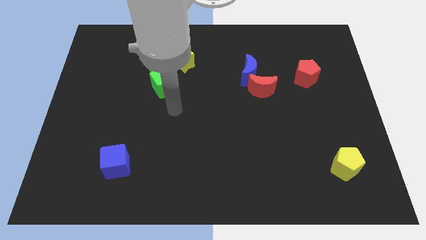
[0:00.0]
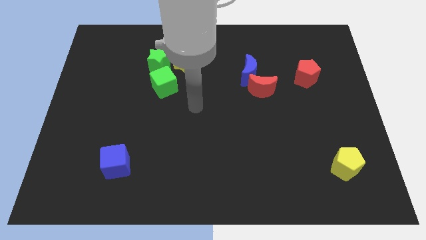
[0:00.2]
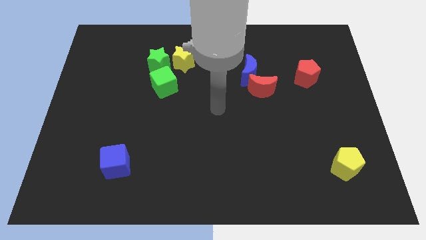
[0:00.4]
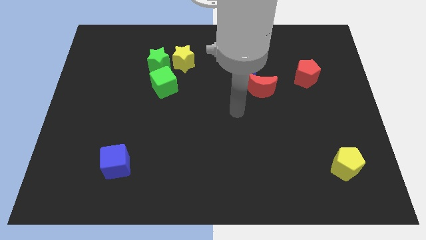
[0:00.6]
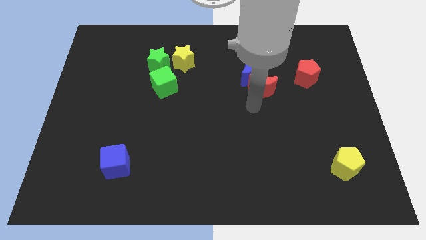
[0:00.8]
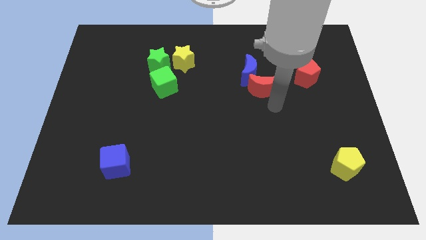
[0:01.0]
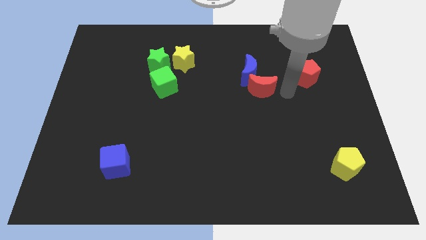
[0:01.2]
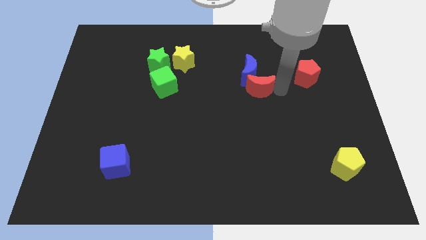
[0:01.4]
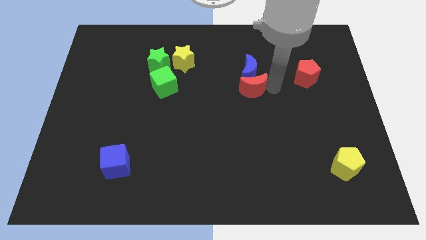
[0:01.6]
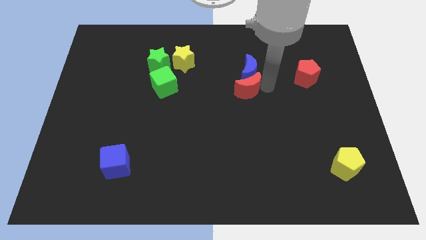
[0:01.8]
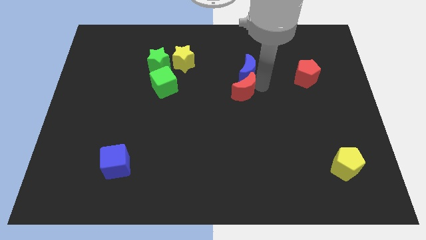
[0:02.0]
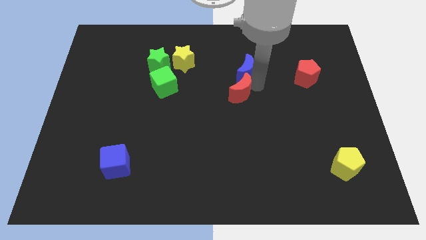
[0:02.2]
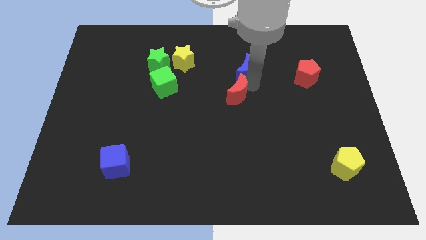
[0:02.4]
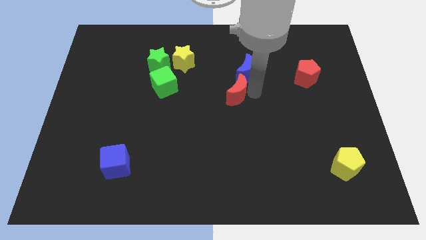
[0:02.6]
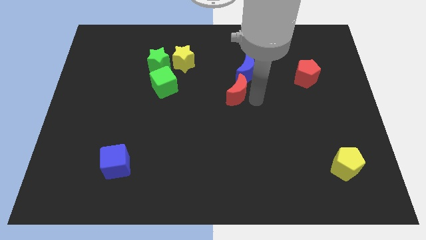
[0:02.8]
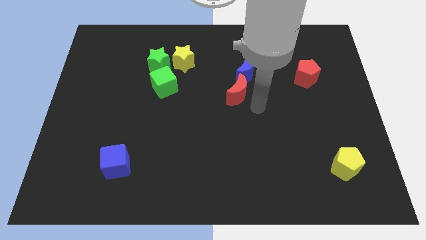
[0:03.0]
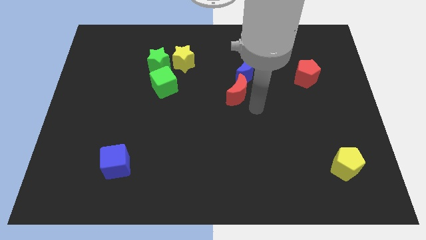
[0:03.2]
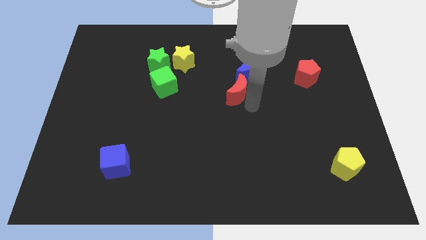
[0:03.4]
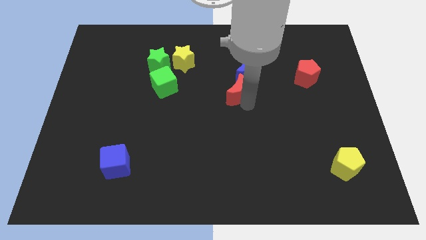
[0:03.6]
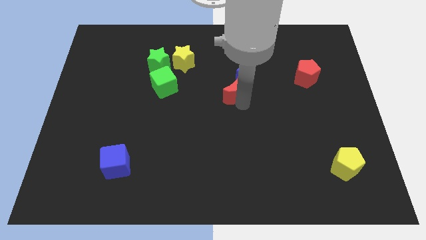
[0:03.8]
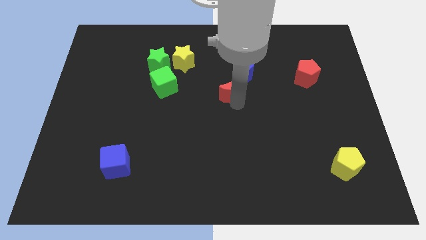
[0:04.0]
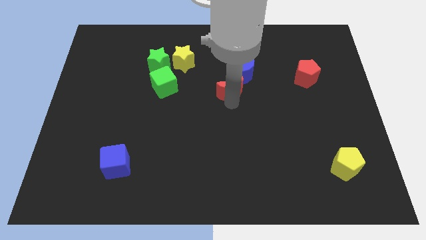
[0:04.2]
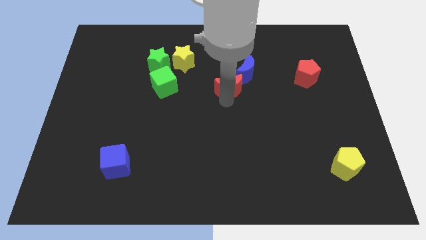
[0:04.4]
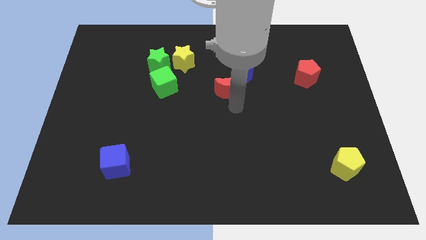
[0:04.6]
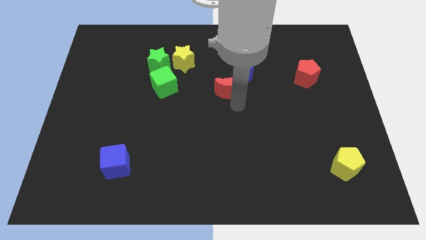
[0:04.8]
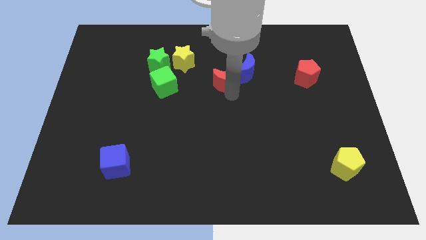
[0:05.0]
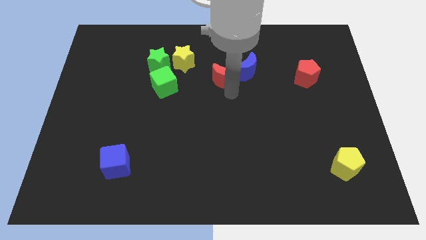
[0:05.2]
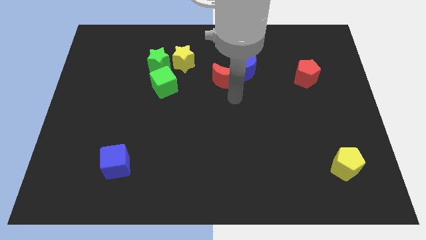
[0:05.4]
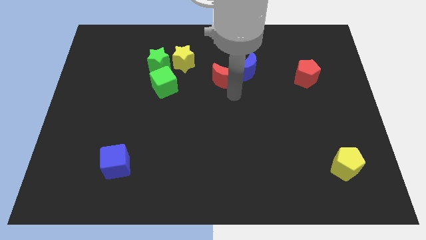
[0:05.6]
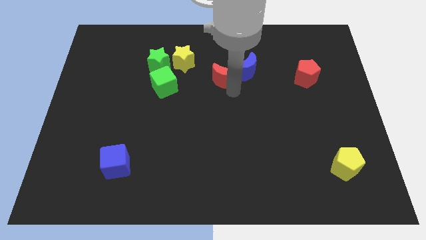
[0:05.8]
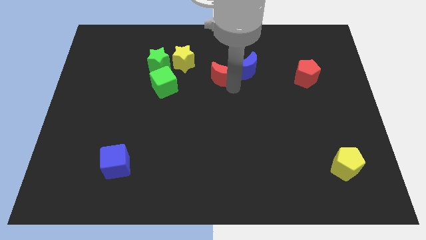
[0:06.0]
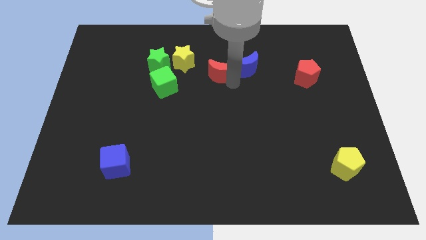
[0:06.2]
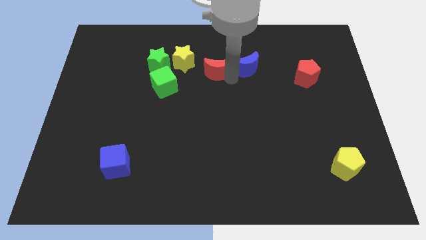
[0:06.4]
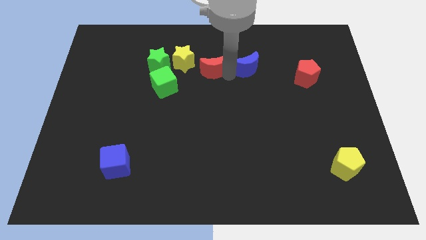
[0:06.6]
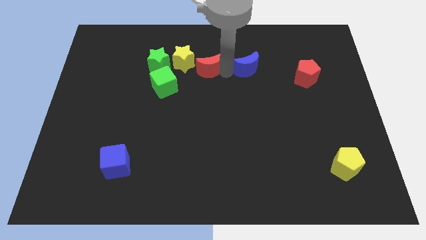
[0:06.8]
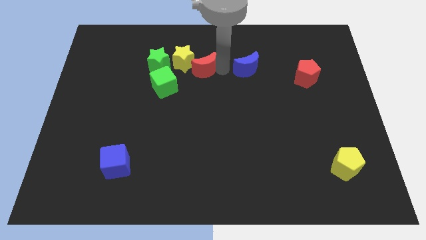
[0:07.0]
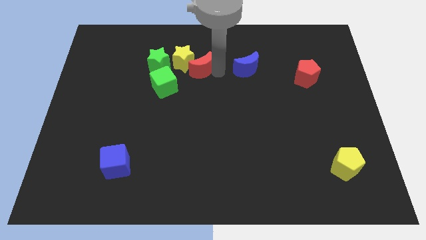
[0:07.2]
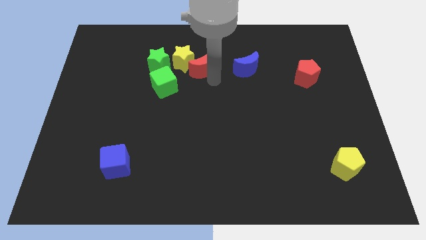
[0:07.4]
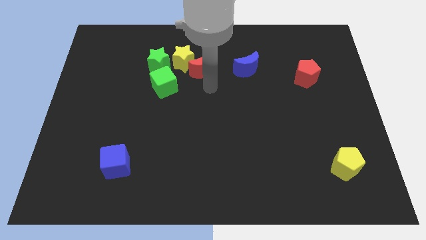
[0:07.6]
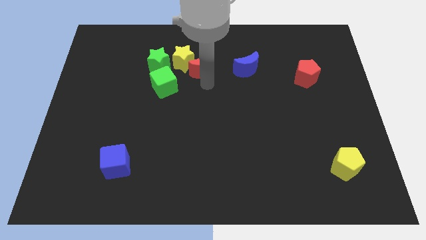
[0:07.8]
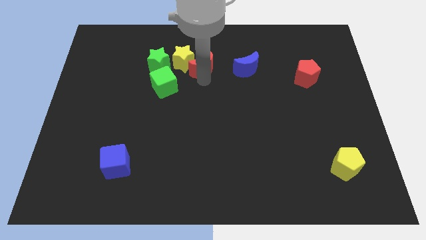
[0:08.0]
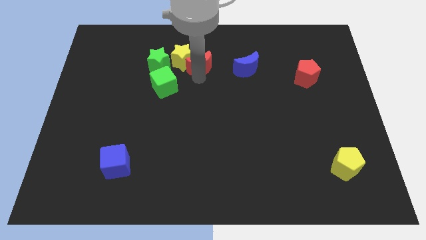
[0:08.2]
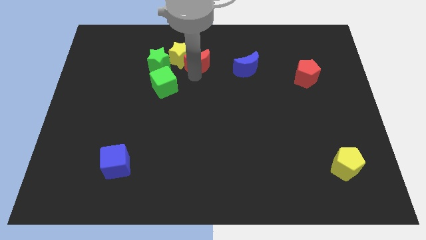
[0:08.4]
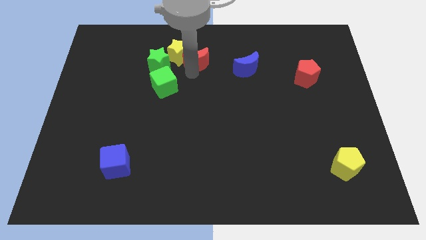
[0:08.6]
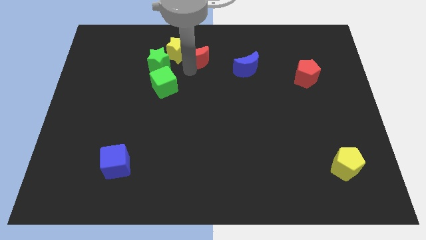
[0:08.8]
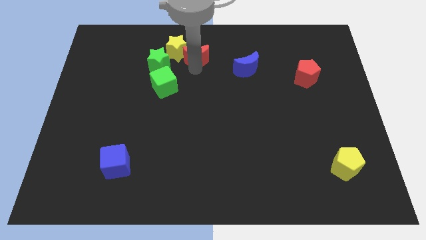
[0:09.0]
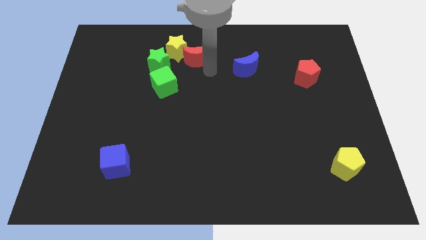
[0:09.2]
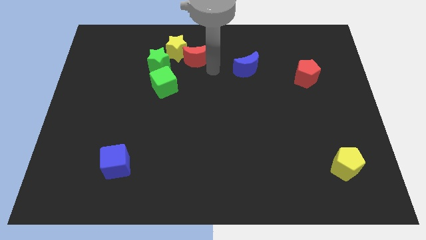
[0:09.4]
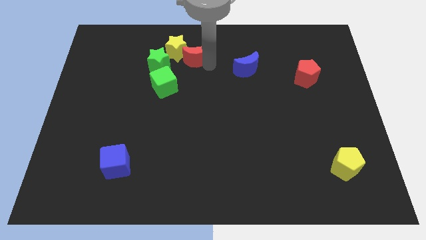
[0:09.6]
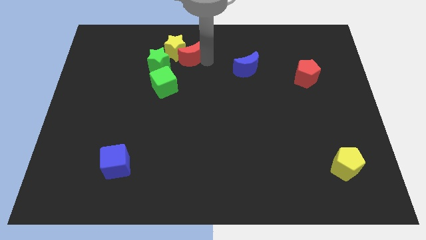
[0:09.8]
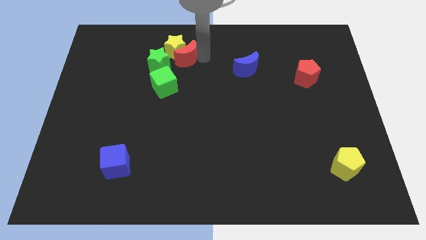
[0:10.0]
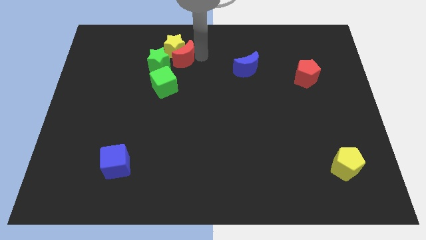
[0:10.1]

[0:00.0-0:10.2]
put the red moon to the top side of the green cube

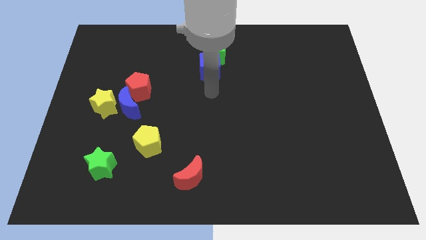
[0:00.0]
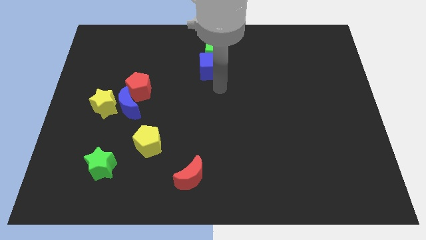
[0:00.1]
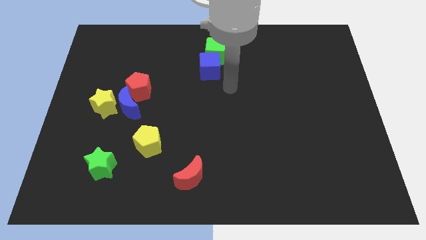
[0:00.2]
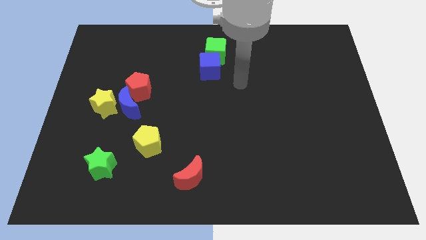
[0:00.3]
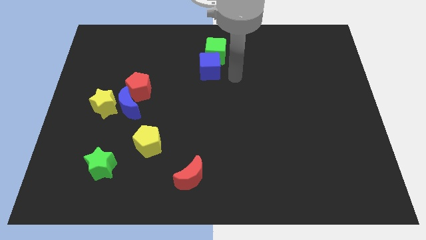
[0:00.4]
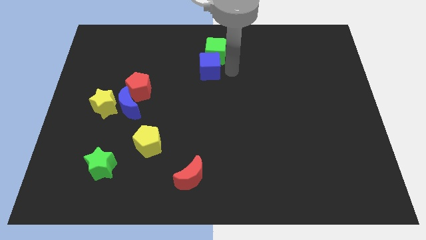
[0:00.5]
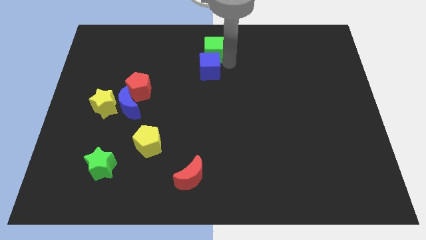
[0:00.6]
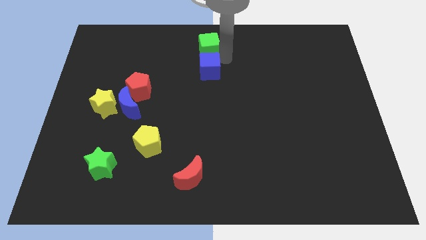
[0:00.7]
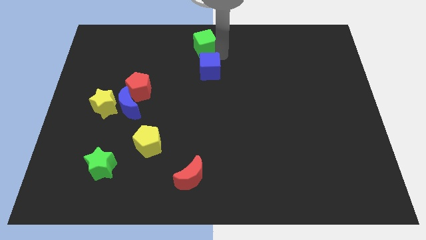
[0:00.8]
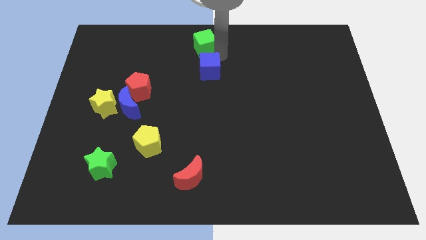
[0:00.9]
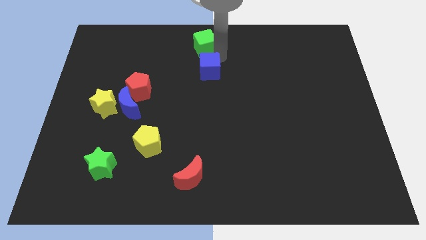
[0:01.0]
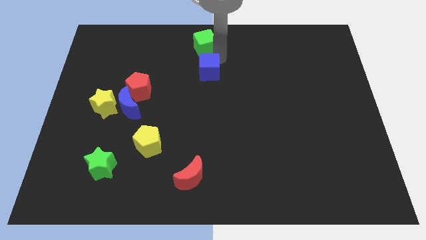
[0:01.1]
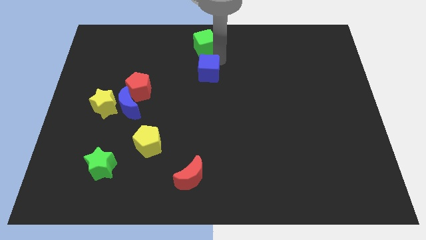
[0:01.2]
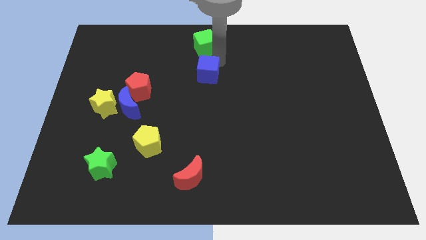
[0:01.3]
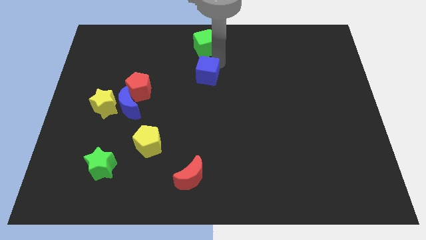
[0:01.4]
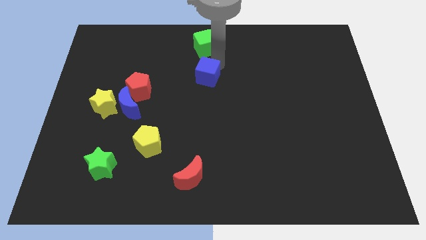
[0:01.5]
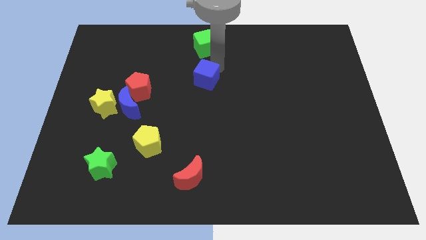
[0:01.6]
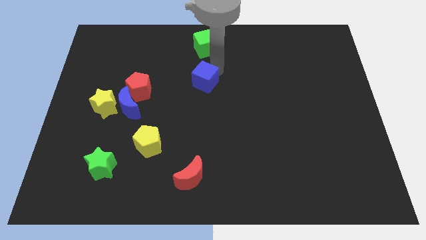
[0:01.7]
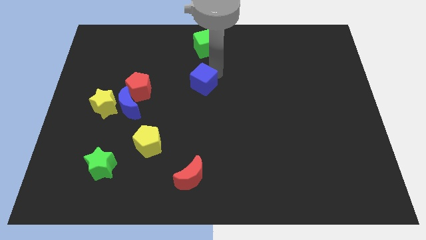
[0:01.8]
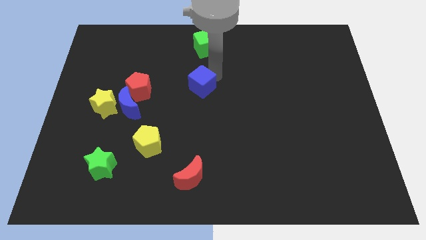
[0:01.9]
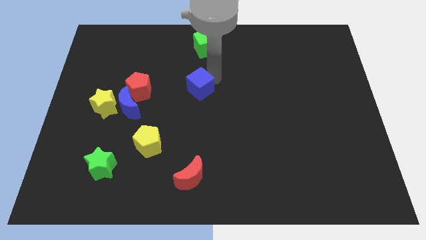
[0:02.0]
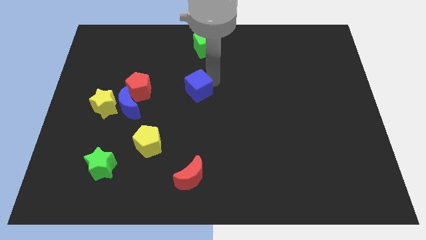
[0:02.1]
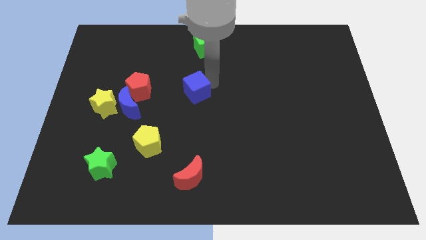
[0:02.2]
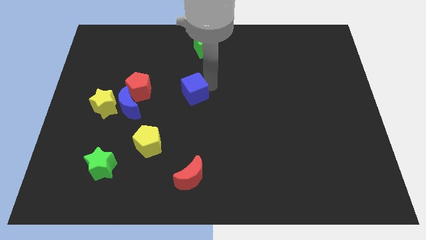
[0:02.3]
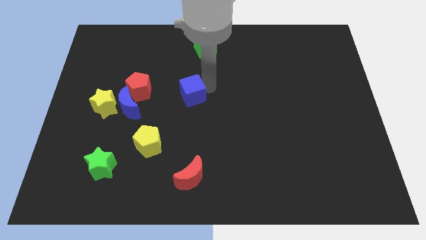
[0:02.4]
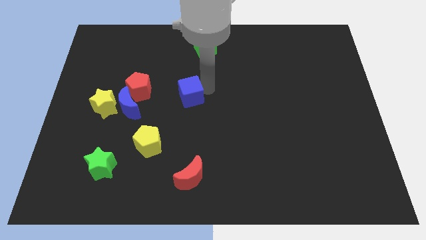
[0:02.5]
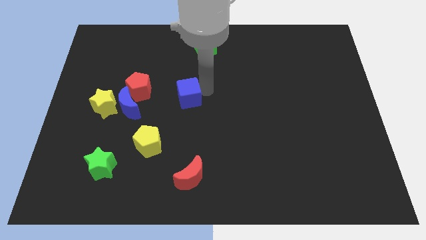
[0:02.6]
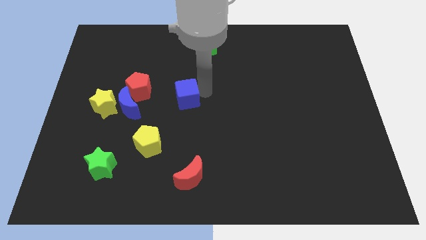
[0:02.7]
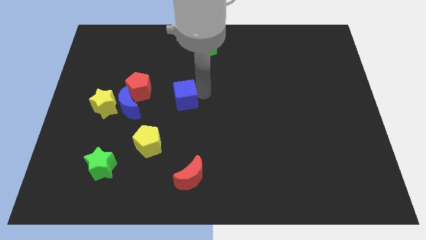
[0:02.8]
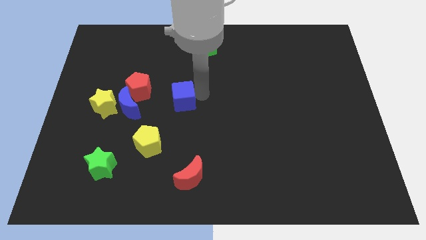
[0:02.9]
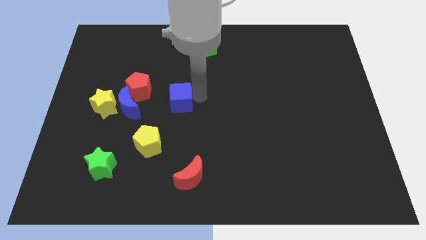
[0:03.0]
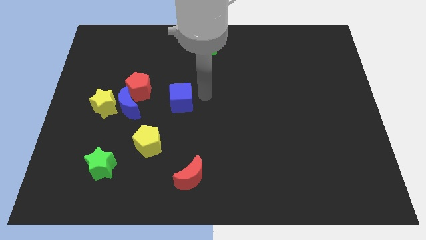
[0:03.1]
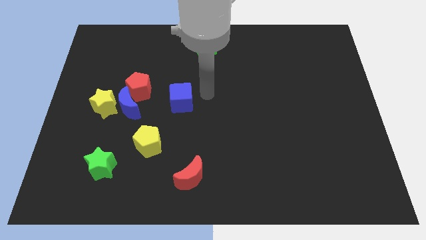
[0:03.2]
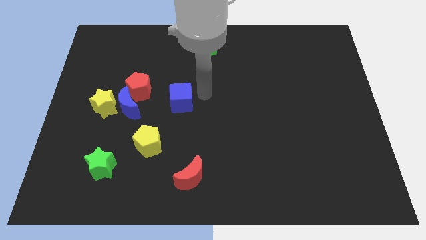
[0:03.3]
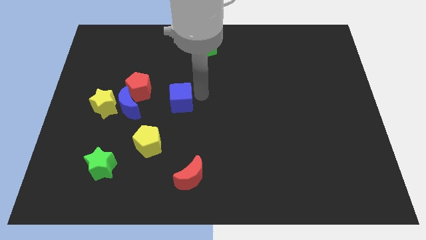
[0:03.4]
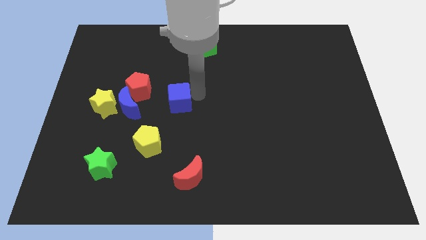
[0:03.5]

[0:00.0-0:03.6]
push the blue cube to the bottom right side of the red pentagon
